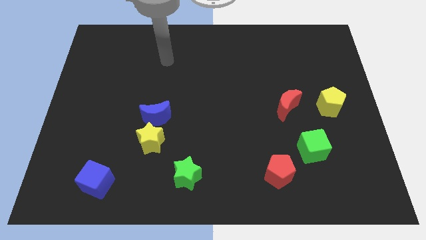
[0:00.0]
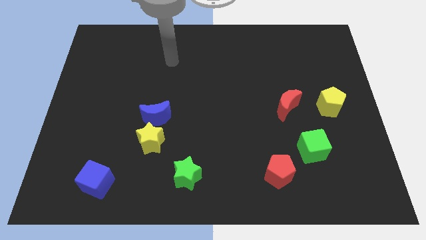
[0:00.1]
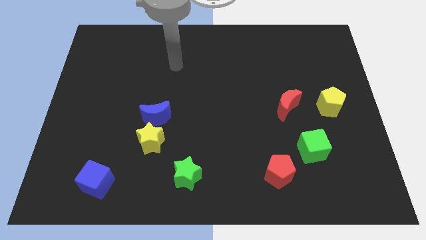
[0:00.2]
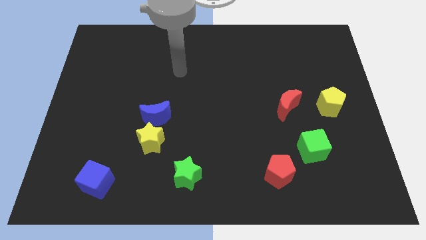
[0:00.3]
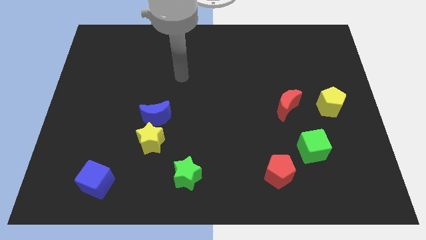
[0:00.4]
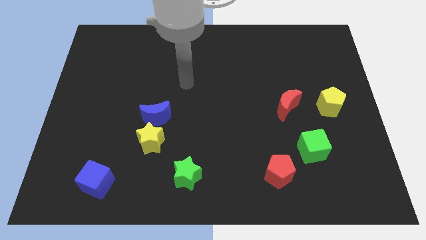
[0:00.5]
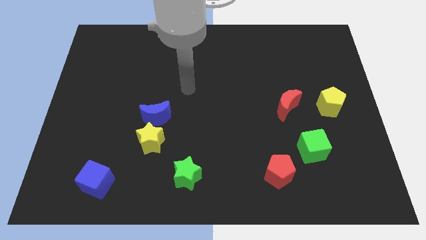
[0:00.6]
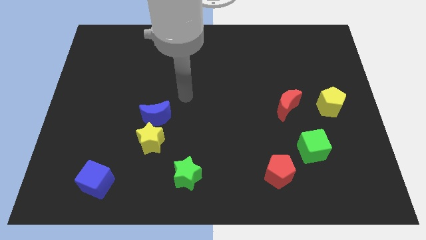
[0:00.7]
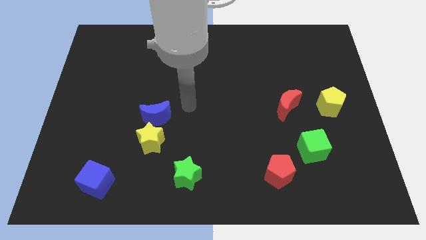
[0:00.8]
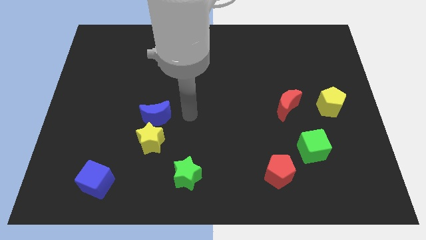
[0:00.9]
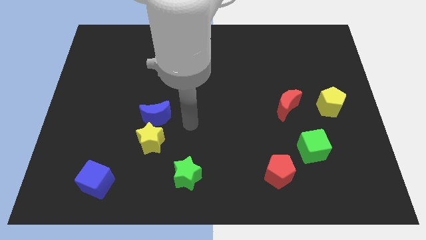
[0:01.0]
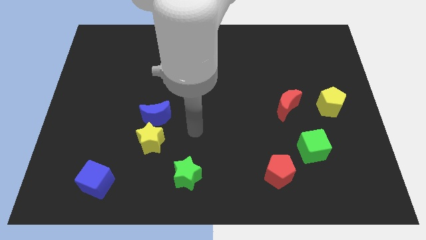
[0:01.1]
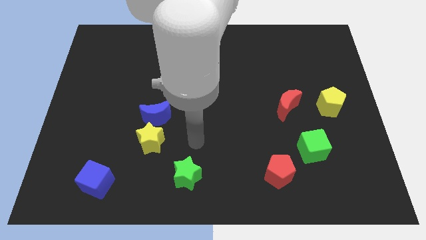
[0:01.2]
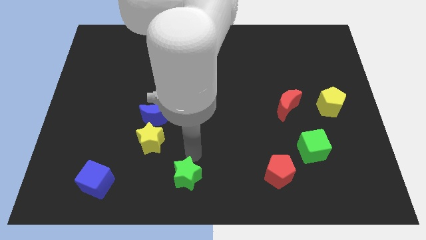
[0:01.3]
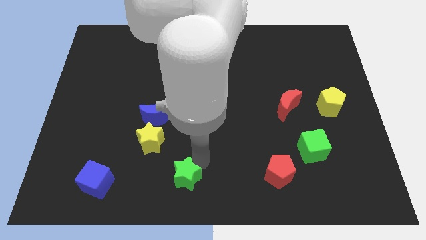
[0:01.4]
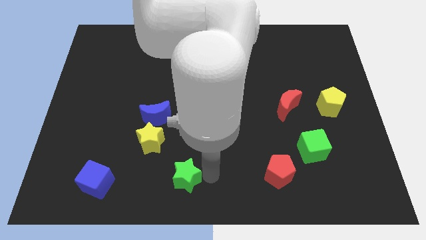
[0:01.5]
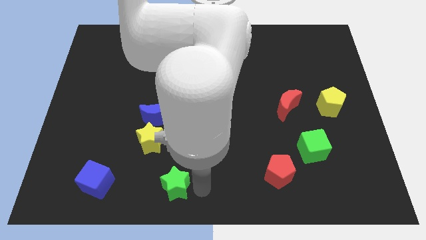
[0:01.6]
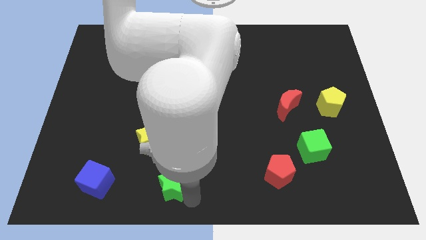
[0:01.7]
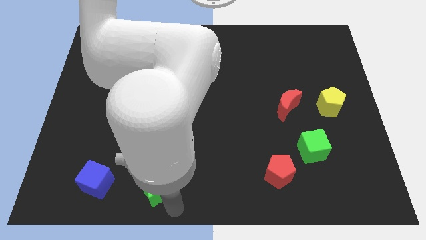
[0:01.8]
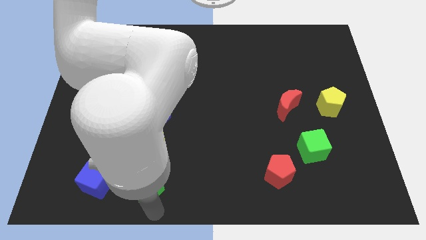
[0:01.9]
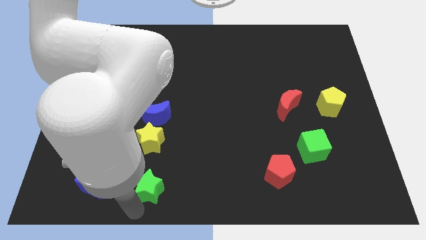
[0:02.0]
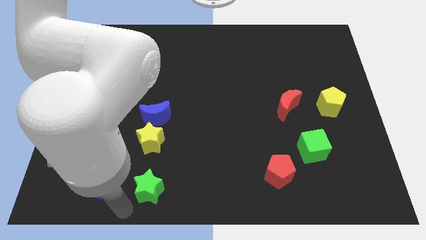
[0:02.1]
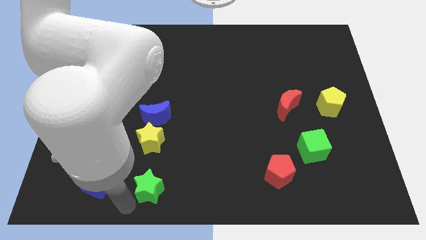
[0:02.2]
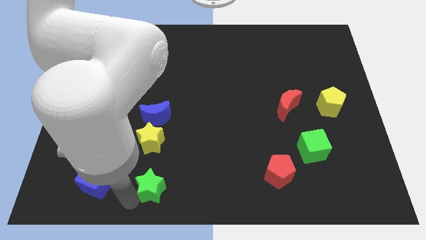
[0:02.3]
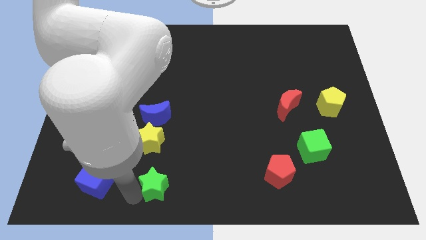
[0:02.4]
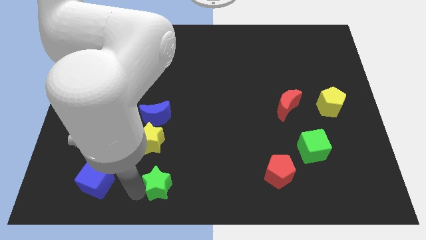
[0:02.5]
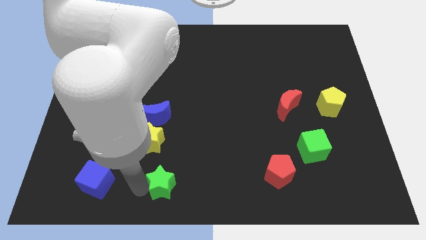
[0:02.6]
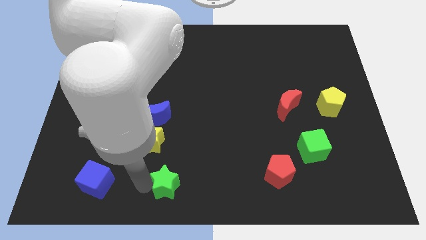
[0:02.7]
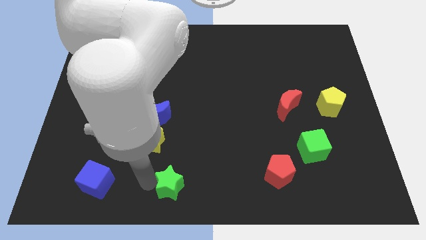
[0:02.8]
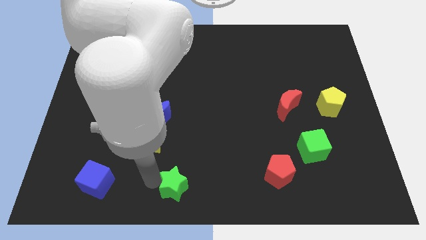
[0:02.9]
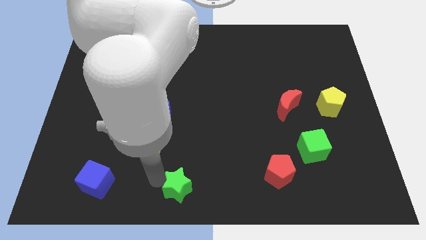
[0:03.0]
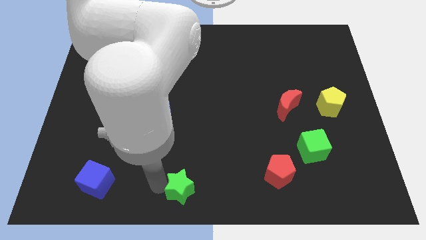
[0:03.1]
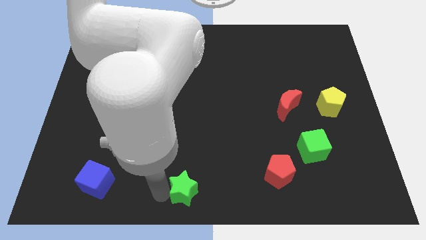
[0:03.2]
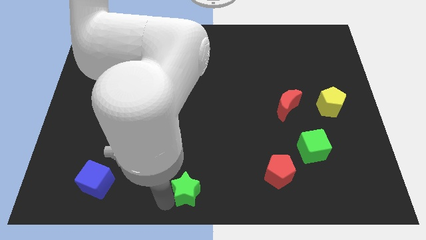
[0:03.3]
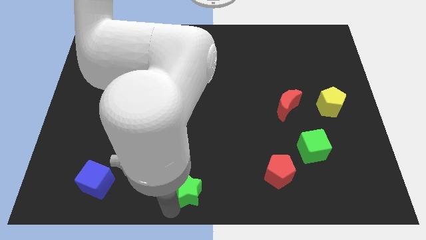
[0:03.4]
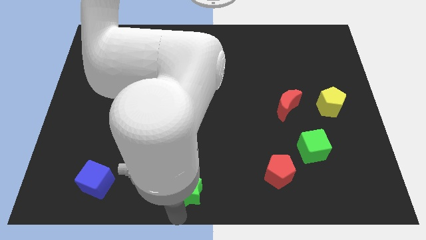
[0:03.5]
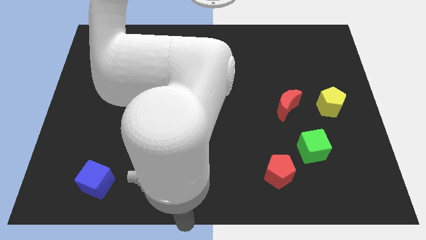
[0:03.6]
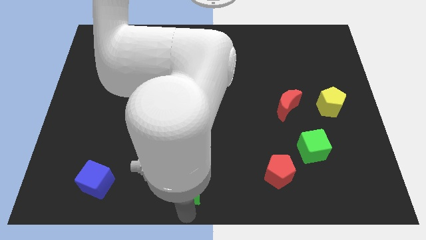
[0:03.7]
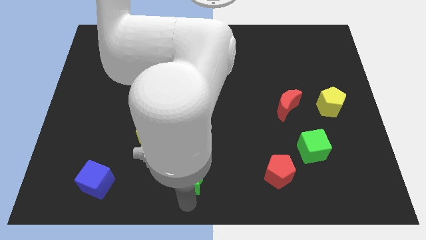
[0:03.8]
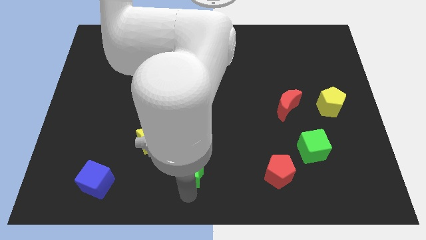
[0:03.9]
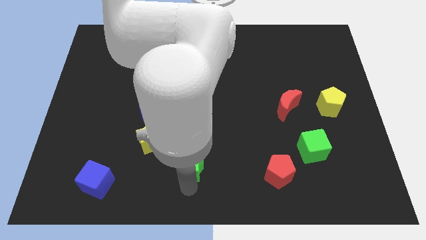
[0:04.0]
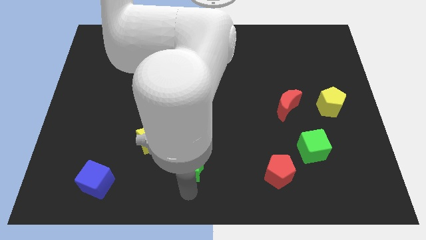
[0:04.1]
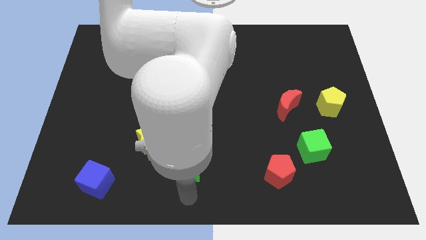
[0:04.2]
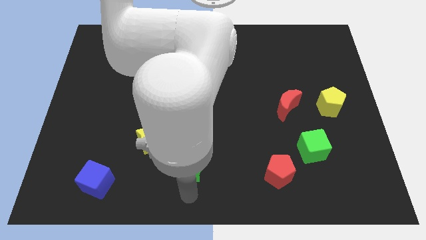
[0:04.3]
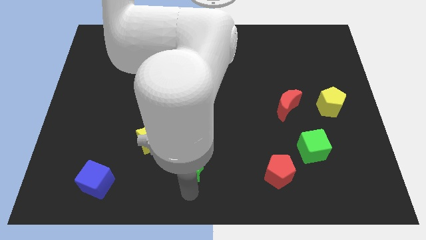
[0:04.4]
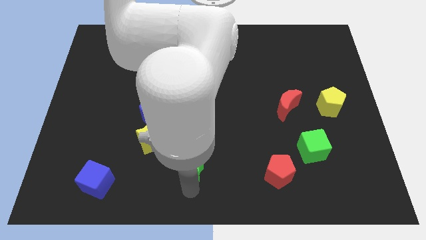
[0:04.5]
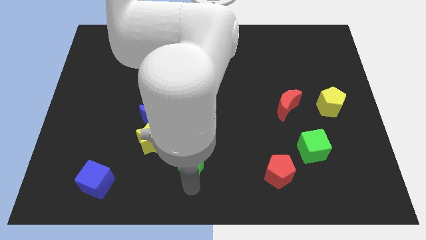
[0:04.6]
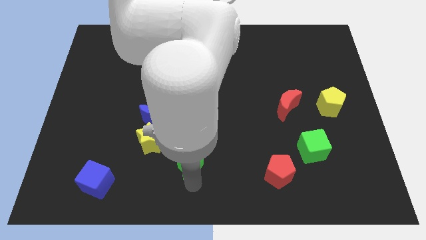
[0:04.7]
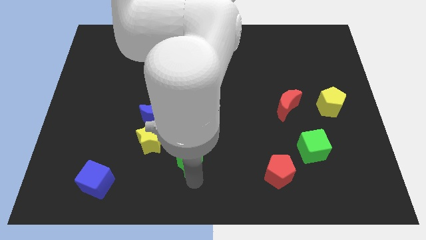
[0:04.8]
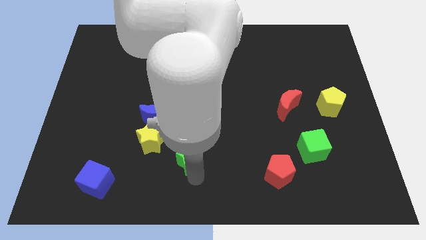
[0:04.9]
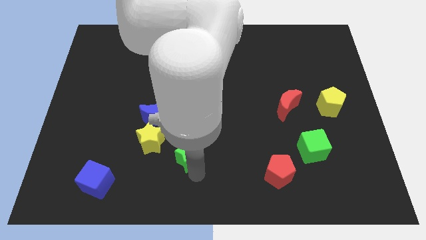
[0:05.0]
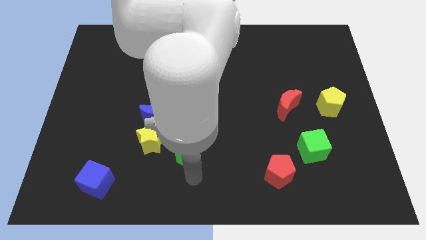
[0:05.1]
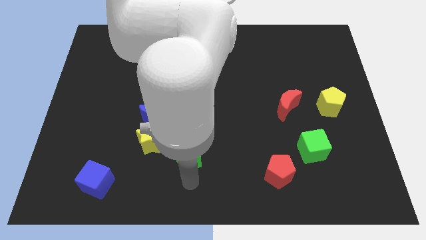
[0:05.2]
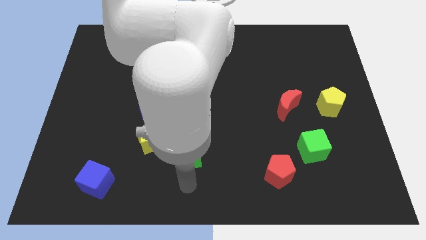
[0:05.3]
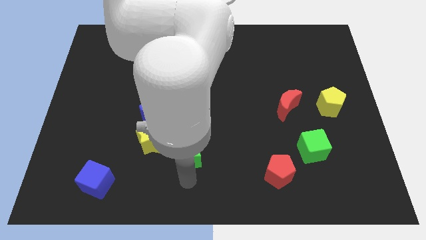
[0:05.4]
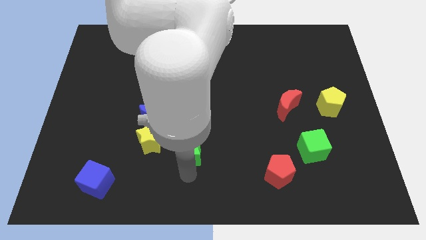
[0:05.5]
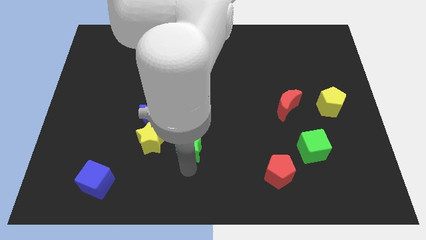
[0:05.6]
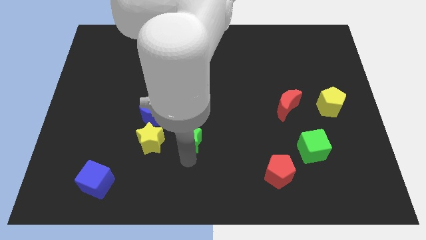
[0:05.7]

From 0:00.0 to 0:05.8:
slide the green star upwards a little

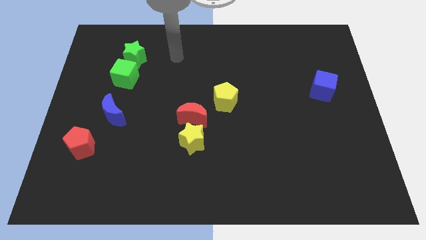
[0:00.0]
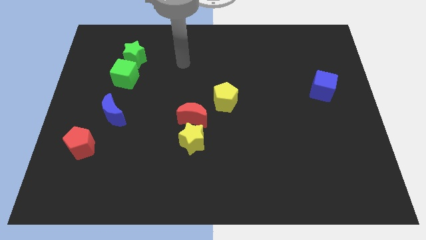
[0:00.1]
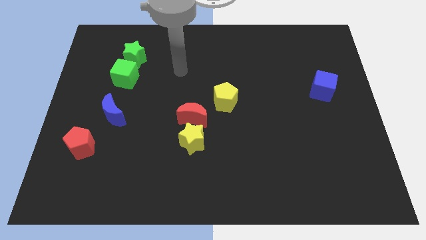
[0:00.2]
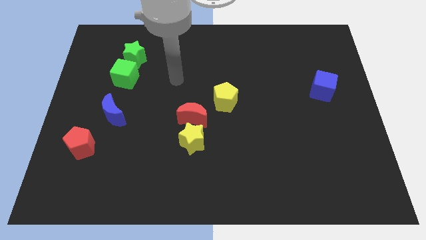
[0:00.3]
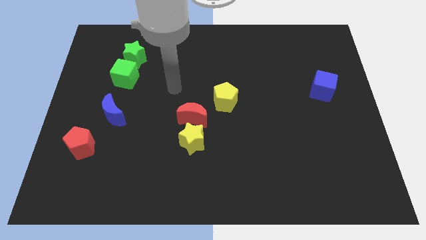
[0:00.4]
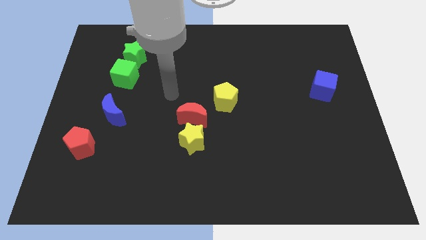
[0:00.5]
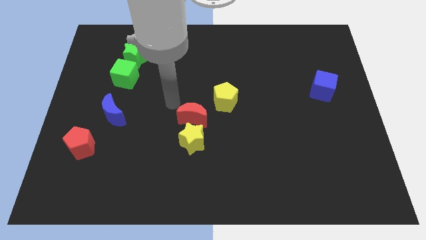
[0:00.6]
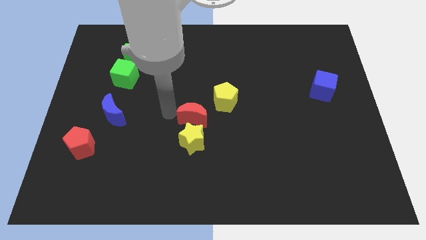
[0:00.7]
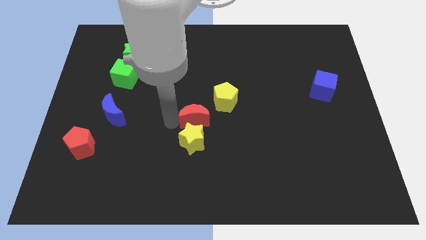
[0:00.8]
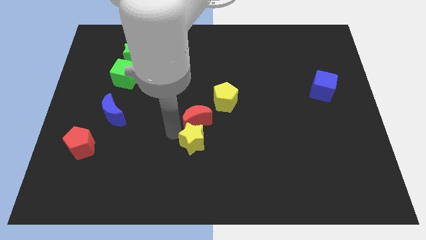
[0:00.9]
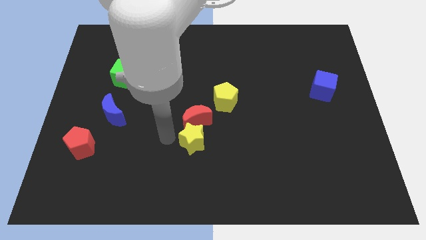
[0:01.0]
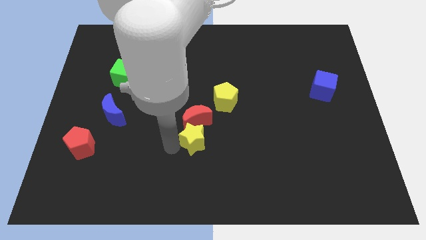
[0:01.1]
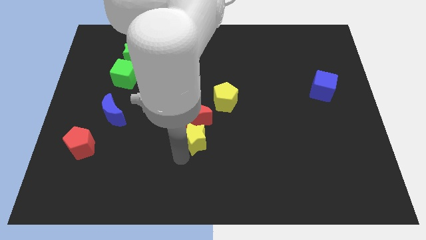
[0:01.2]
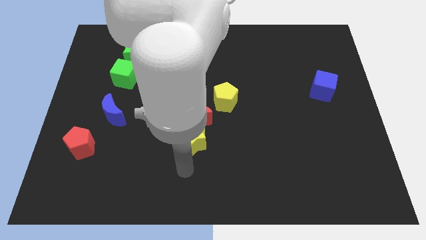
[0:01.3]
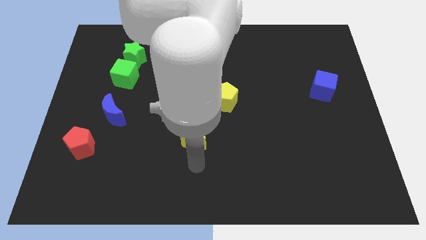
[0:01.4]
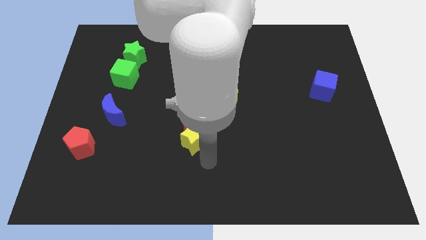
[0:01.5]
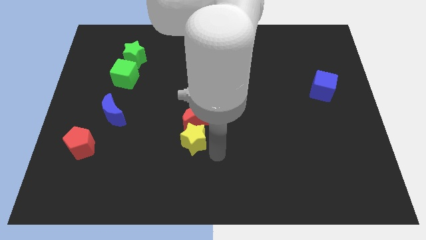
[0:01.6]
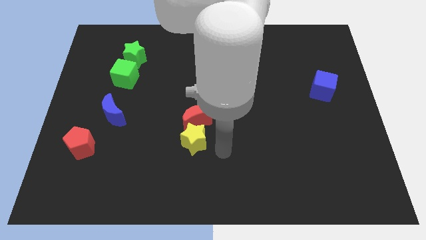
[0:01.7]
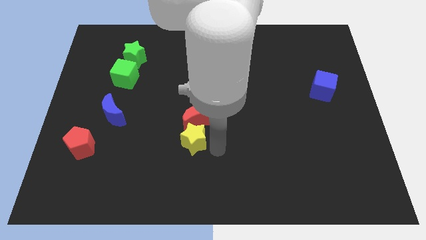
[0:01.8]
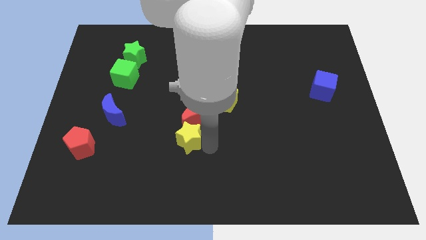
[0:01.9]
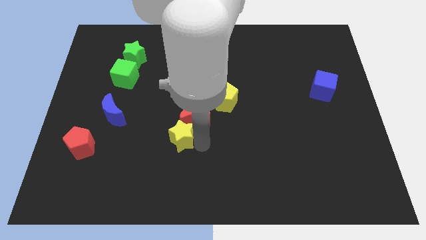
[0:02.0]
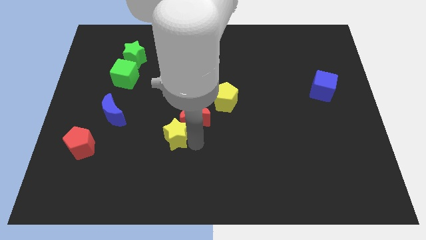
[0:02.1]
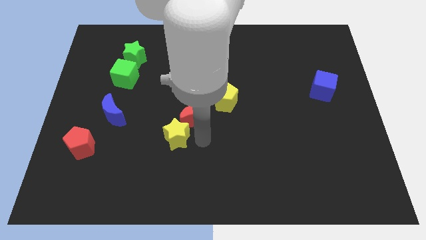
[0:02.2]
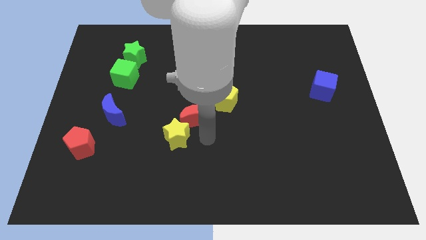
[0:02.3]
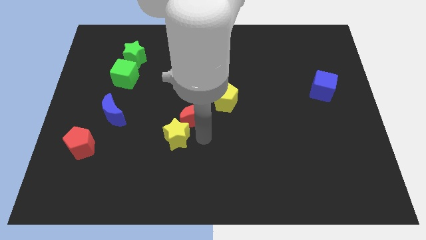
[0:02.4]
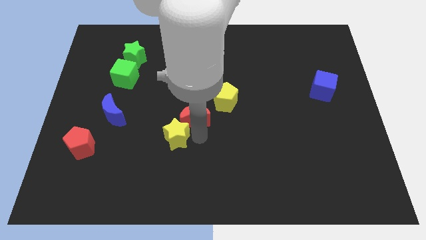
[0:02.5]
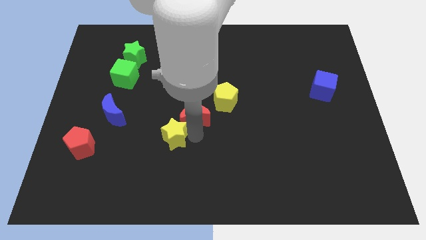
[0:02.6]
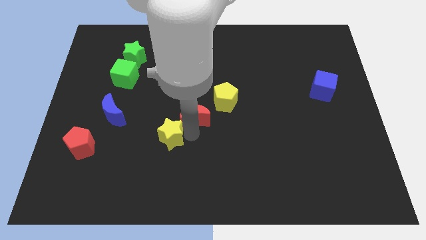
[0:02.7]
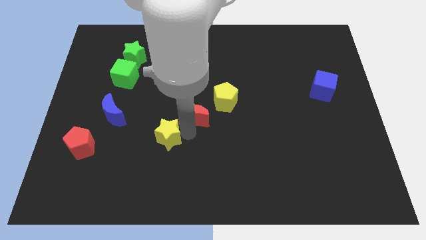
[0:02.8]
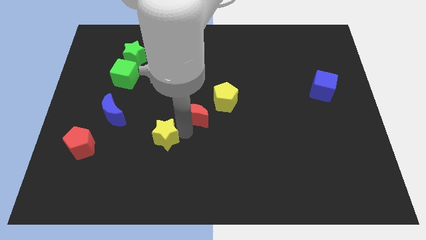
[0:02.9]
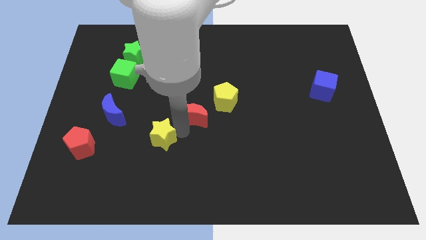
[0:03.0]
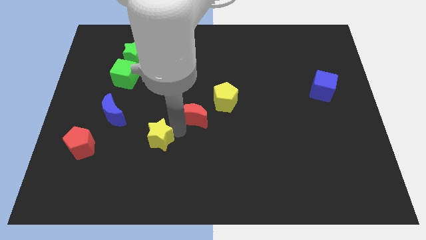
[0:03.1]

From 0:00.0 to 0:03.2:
slightly slide the yellow star to the left
